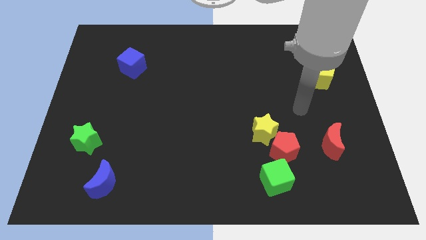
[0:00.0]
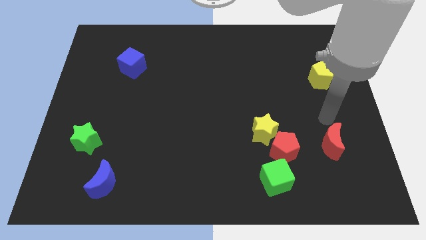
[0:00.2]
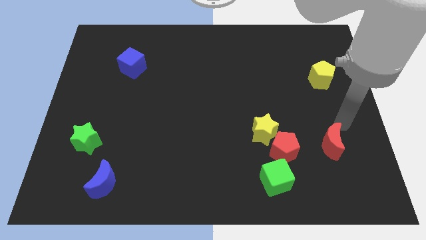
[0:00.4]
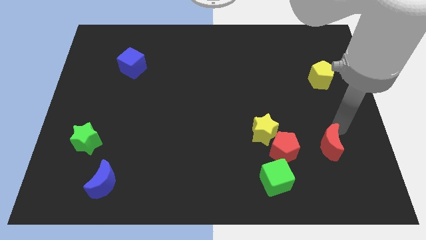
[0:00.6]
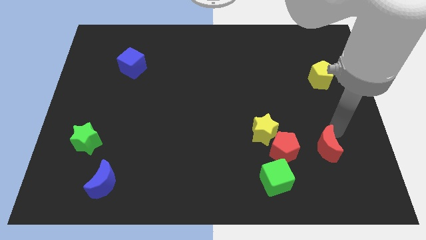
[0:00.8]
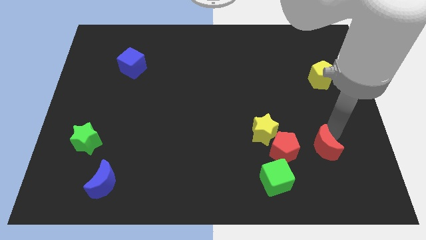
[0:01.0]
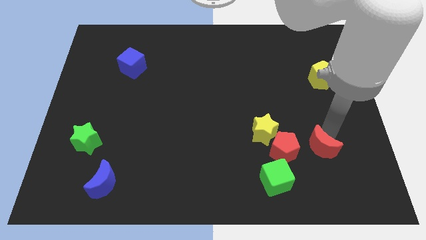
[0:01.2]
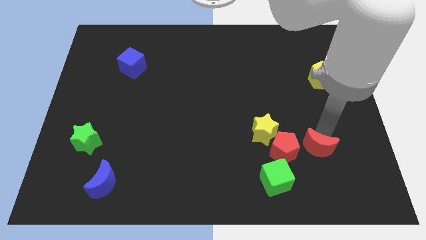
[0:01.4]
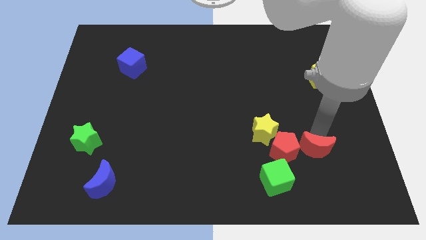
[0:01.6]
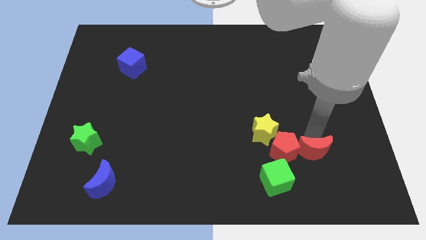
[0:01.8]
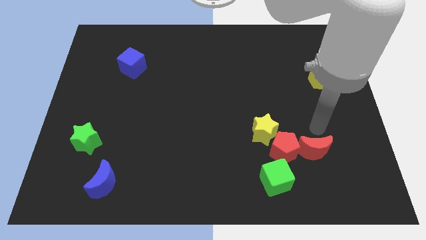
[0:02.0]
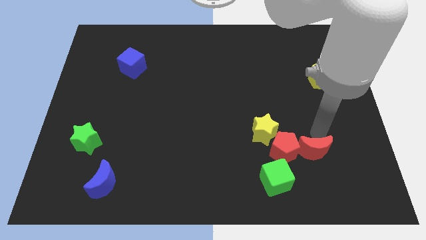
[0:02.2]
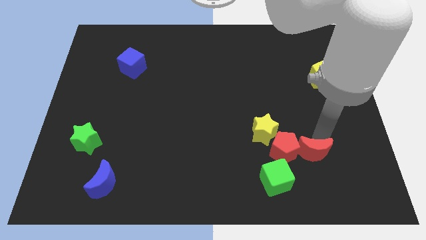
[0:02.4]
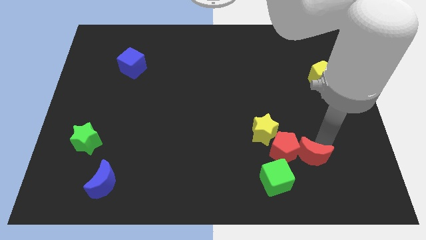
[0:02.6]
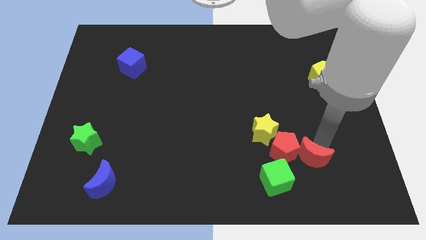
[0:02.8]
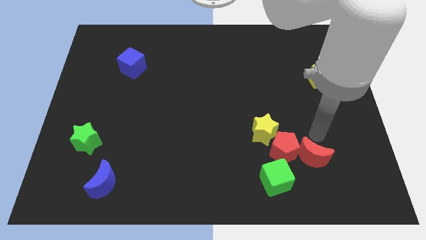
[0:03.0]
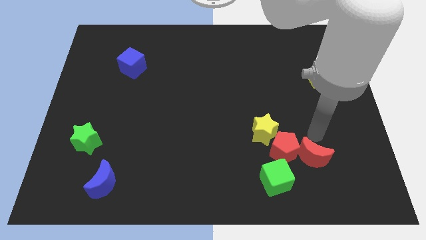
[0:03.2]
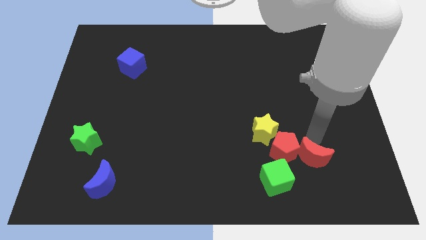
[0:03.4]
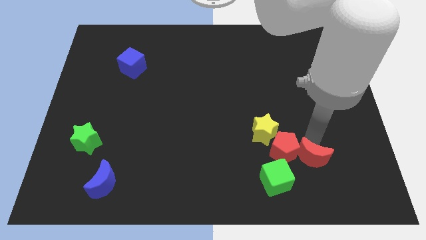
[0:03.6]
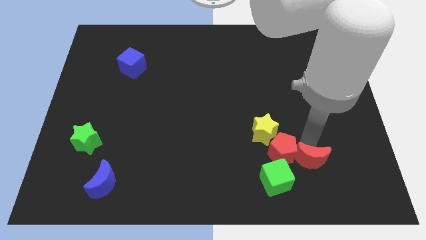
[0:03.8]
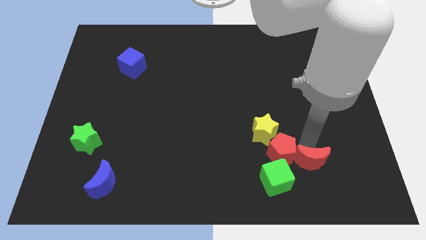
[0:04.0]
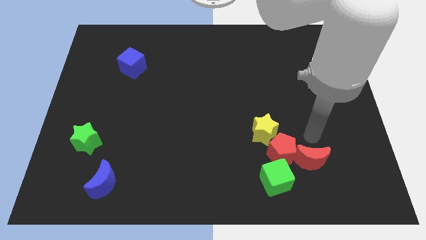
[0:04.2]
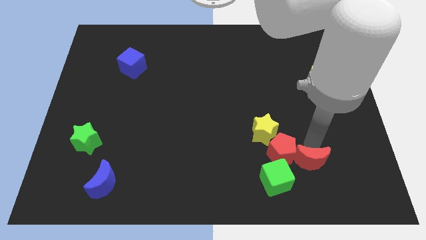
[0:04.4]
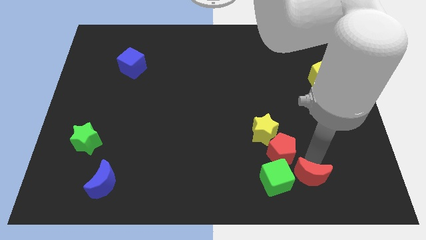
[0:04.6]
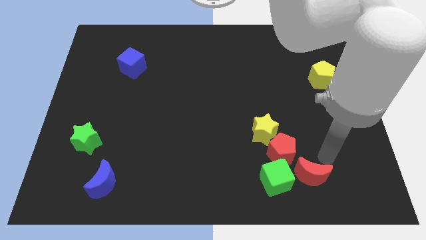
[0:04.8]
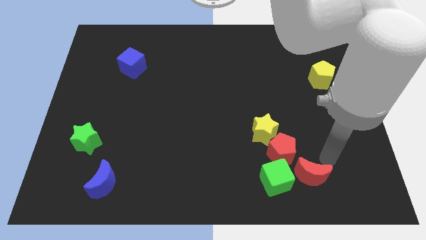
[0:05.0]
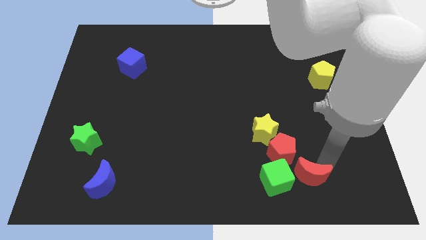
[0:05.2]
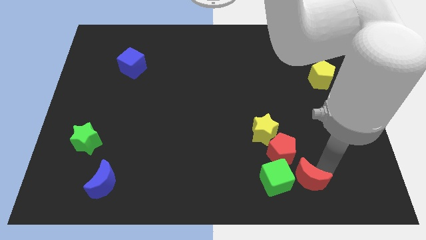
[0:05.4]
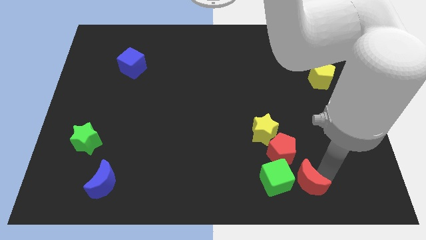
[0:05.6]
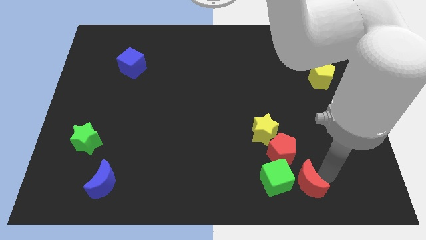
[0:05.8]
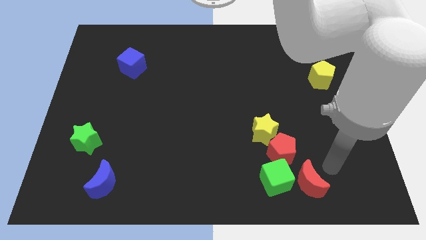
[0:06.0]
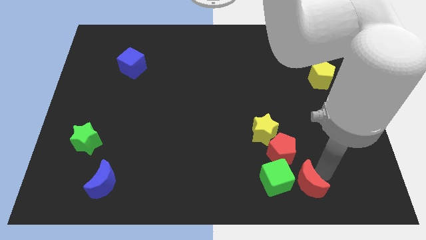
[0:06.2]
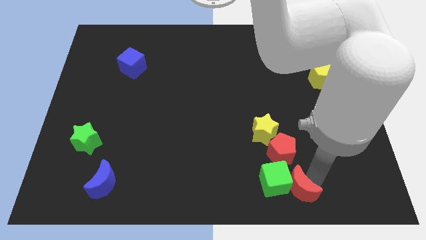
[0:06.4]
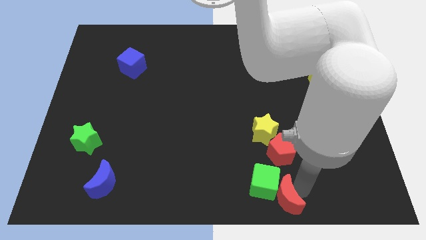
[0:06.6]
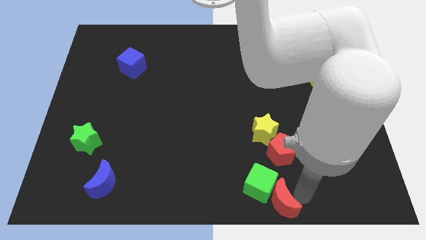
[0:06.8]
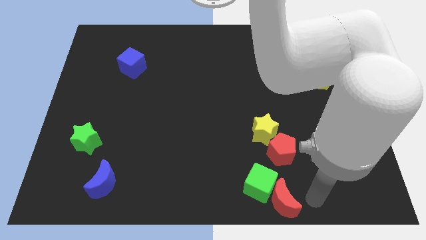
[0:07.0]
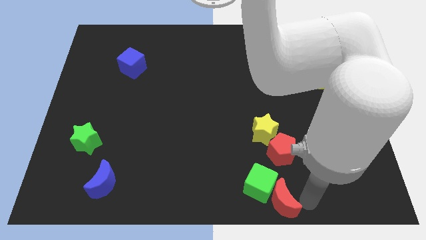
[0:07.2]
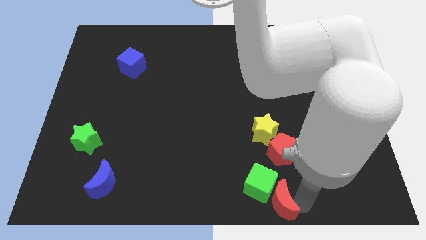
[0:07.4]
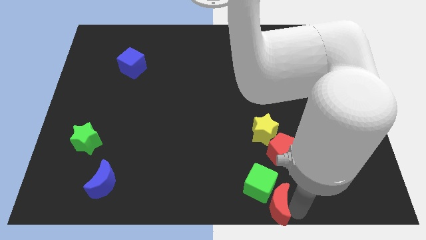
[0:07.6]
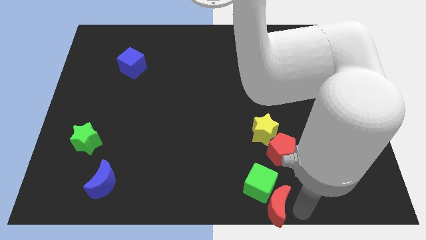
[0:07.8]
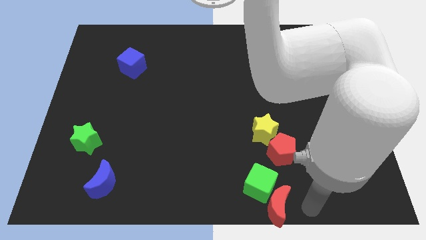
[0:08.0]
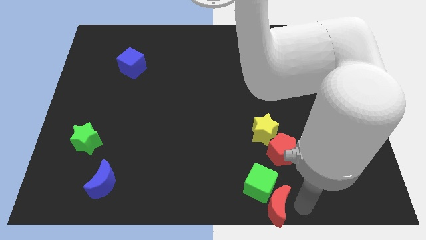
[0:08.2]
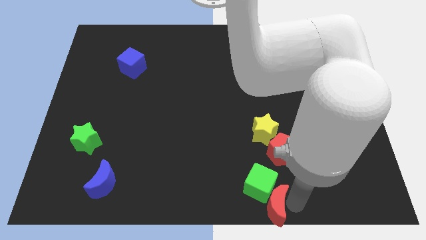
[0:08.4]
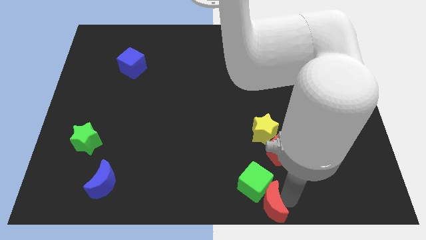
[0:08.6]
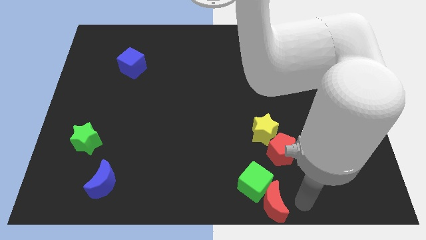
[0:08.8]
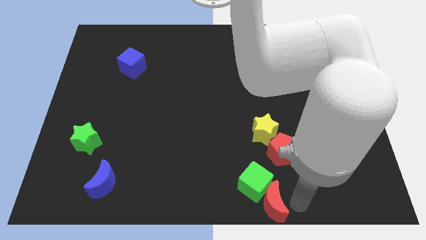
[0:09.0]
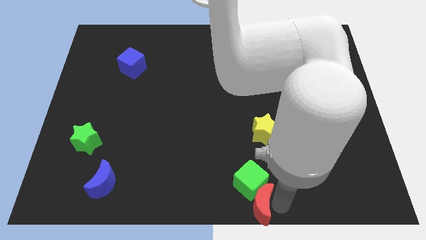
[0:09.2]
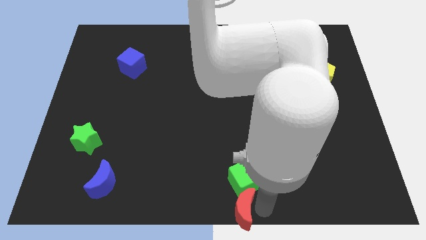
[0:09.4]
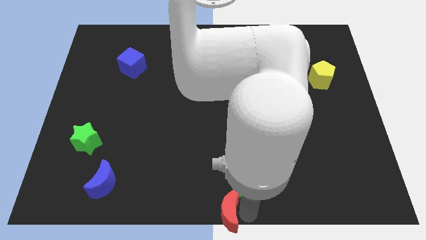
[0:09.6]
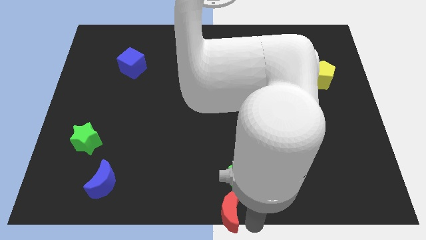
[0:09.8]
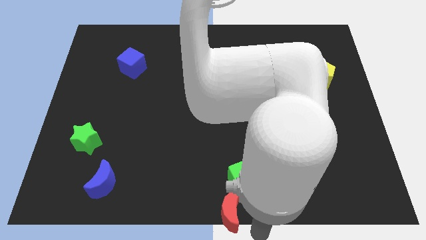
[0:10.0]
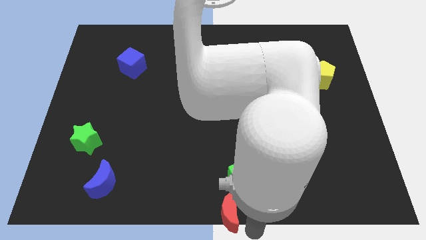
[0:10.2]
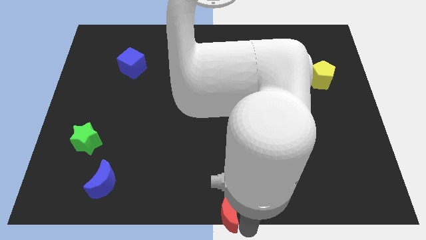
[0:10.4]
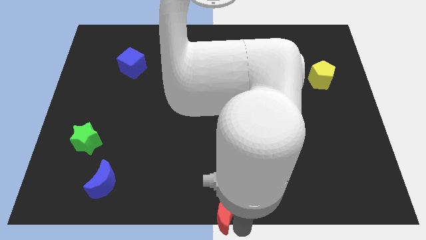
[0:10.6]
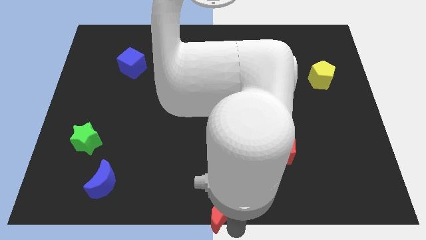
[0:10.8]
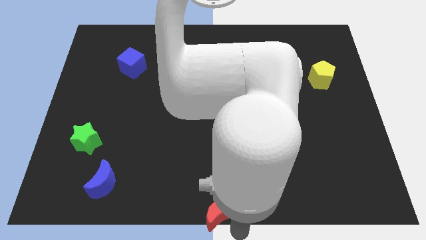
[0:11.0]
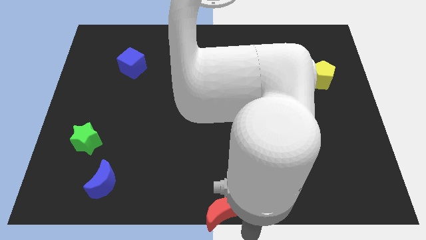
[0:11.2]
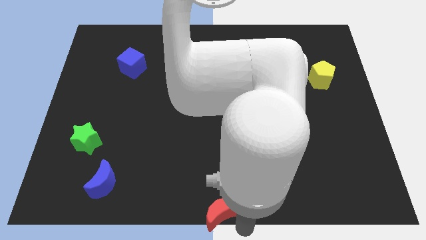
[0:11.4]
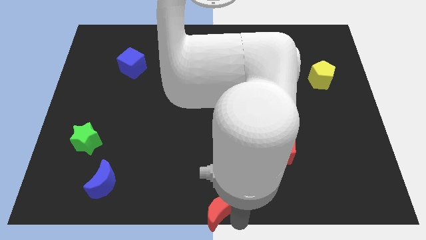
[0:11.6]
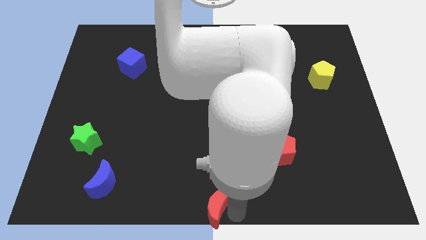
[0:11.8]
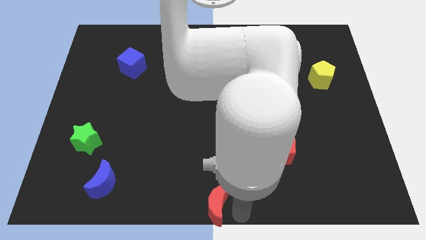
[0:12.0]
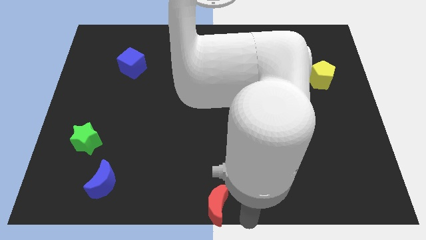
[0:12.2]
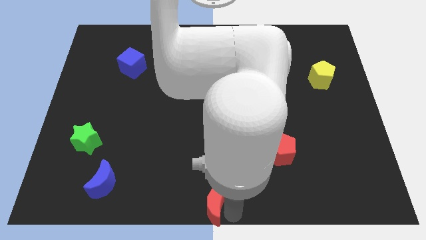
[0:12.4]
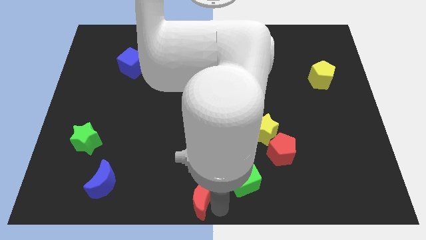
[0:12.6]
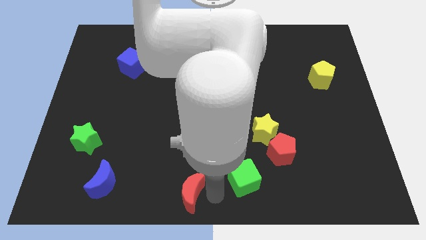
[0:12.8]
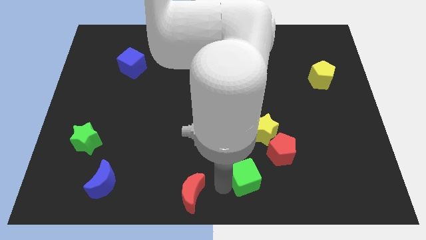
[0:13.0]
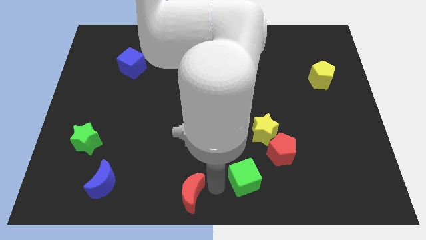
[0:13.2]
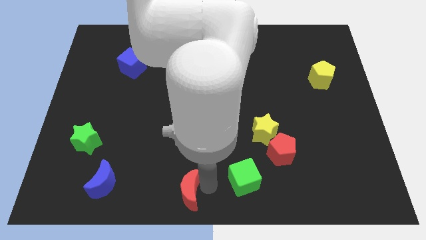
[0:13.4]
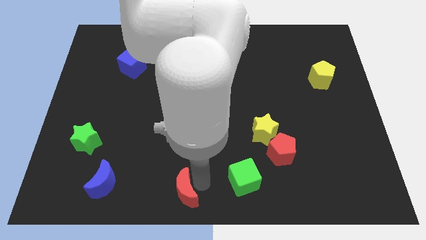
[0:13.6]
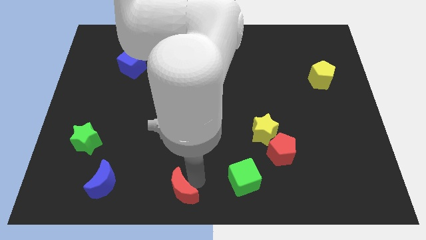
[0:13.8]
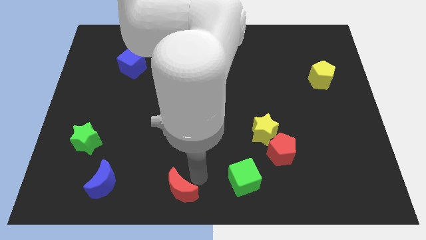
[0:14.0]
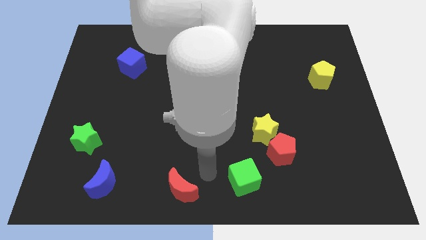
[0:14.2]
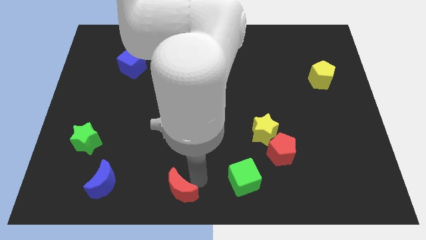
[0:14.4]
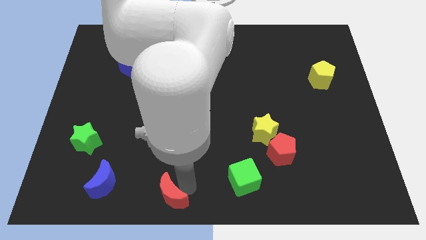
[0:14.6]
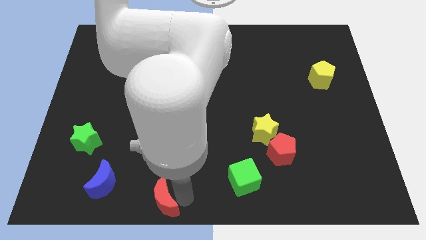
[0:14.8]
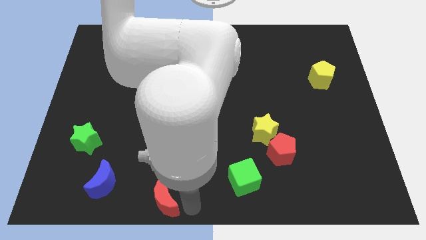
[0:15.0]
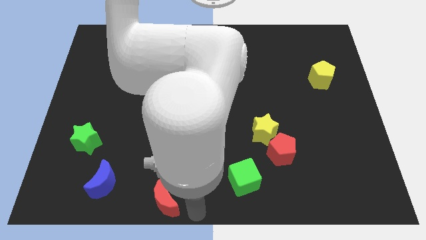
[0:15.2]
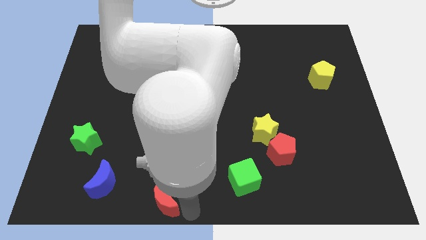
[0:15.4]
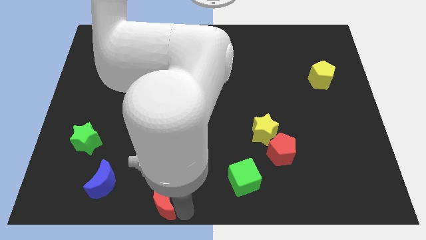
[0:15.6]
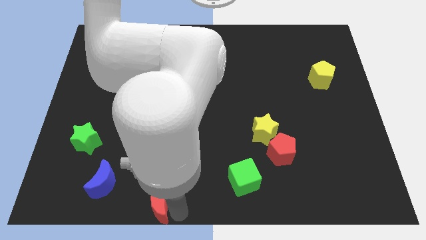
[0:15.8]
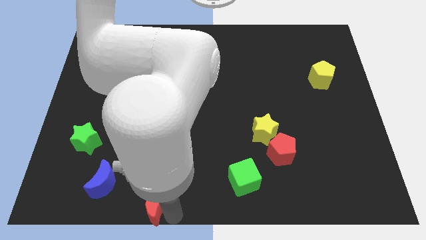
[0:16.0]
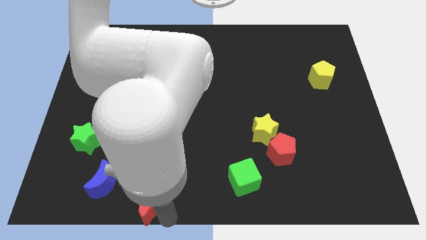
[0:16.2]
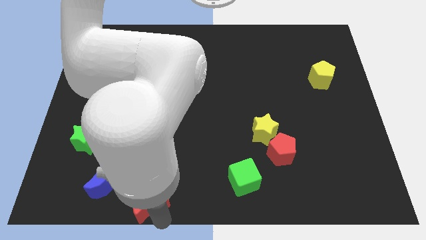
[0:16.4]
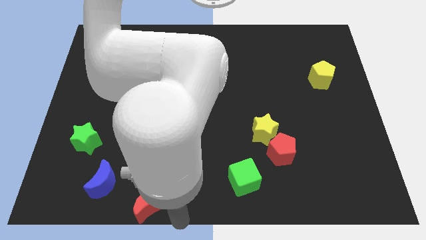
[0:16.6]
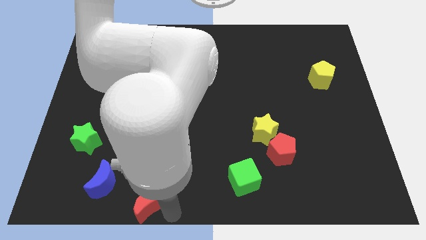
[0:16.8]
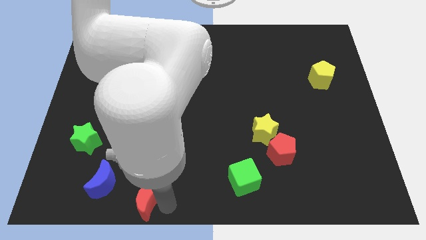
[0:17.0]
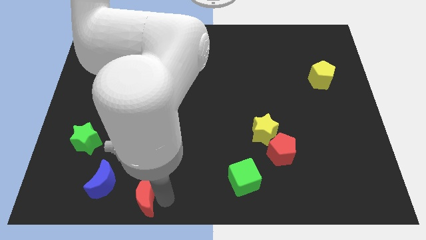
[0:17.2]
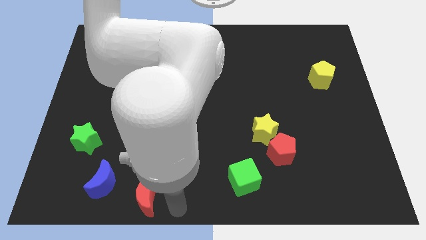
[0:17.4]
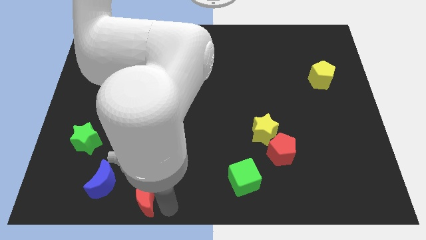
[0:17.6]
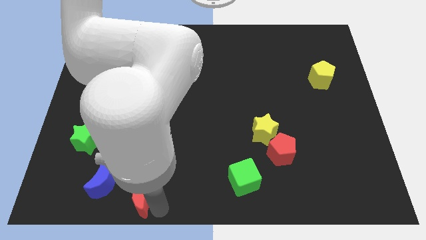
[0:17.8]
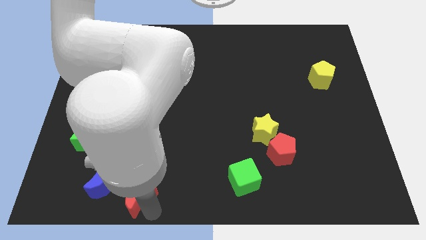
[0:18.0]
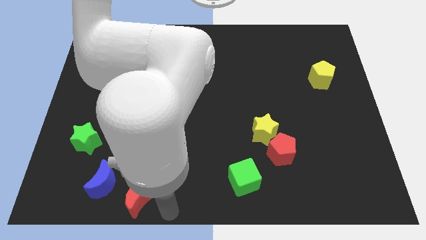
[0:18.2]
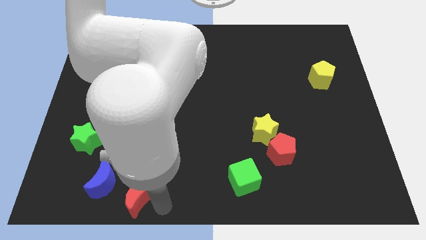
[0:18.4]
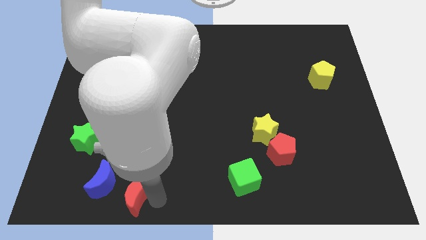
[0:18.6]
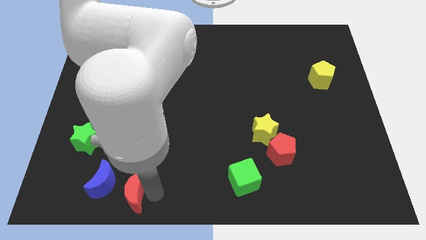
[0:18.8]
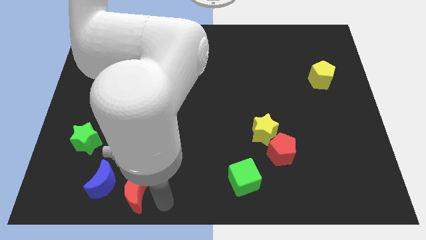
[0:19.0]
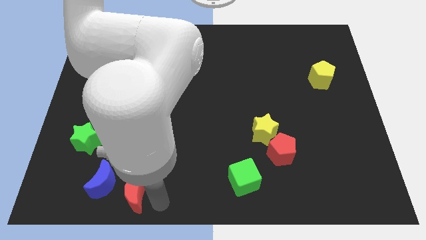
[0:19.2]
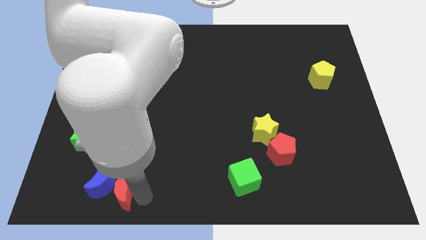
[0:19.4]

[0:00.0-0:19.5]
slide the red moon towards the blue moon
